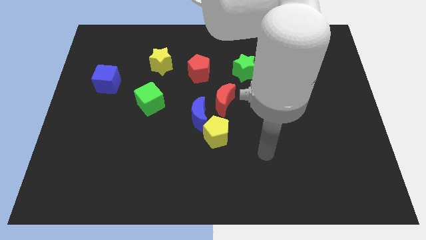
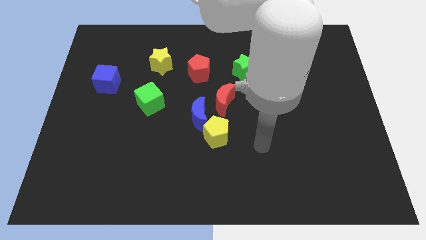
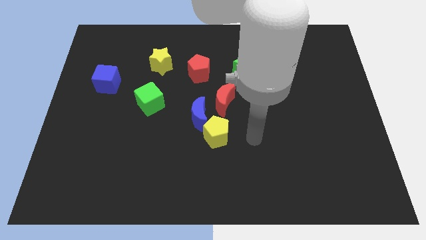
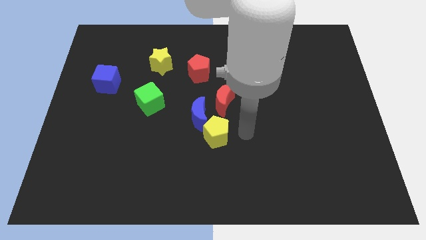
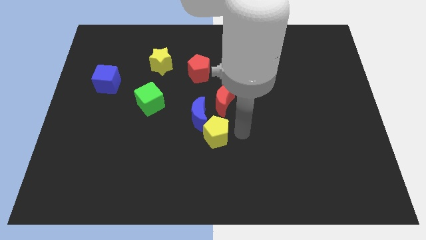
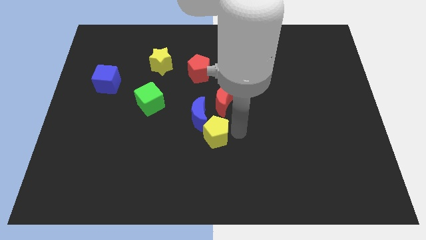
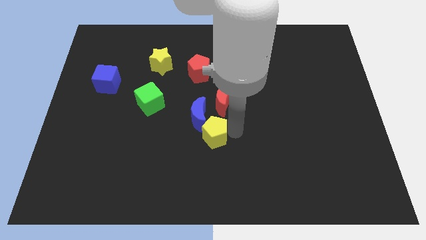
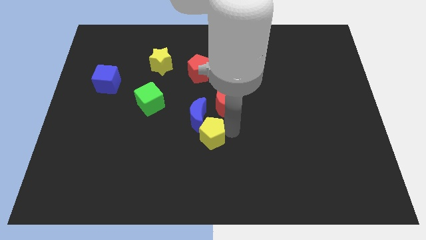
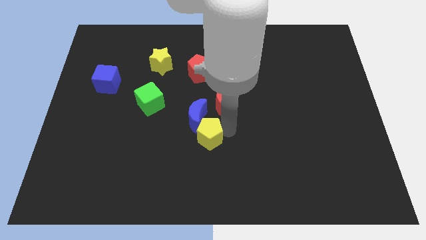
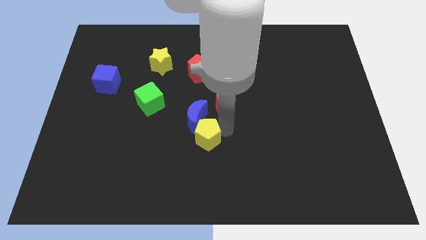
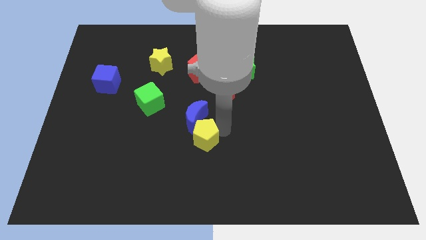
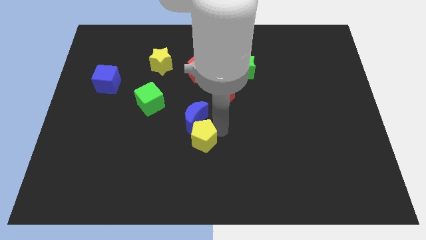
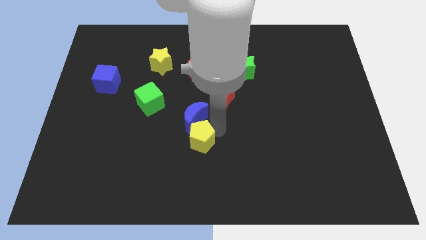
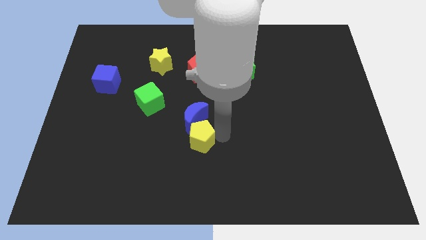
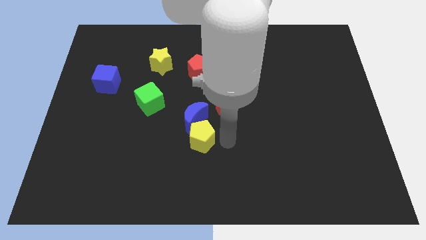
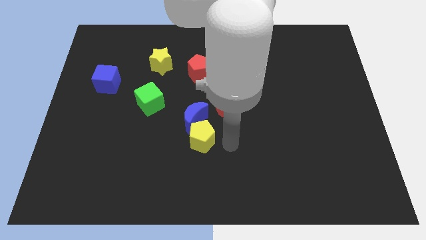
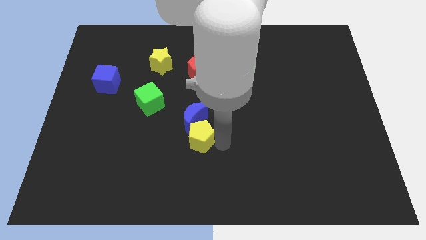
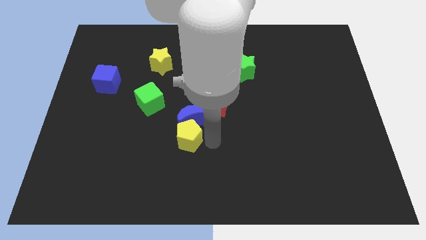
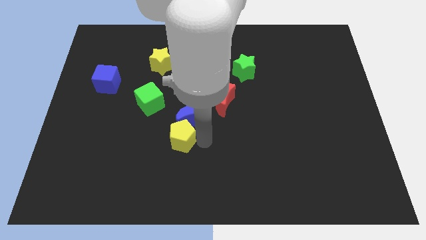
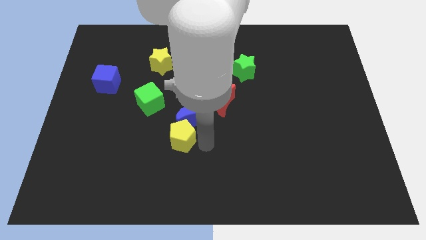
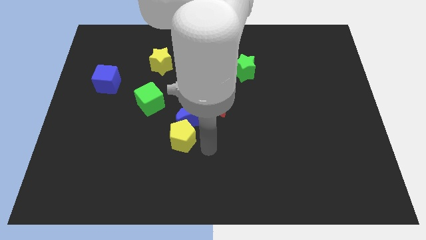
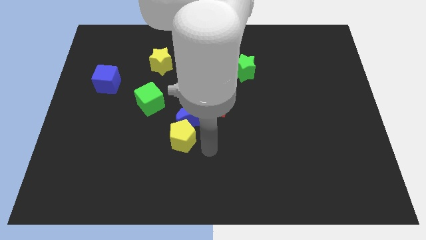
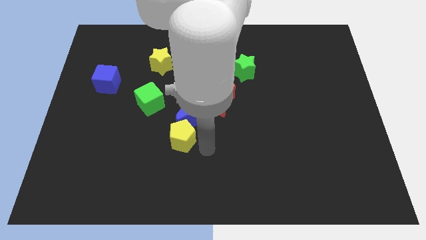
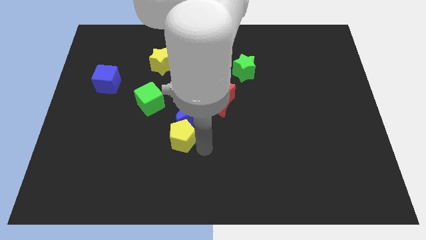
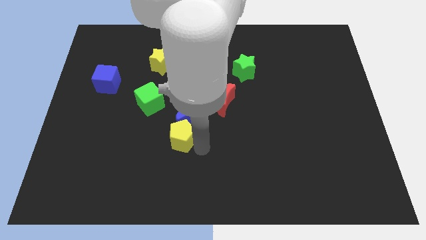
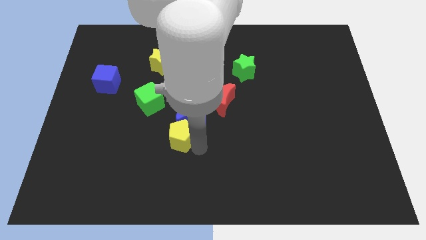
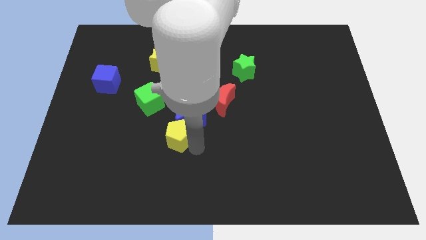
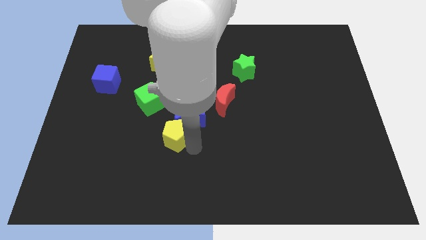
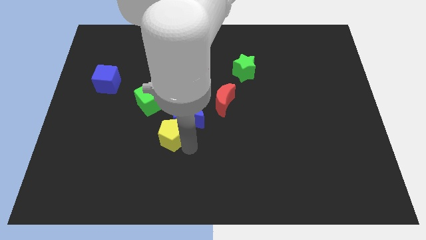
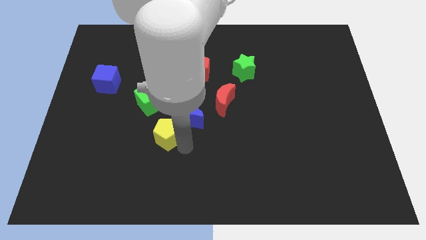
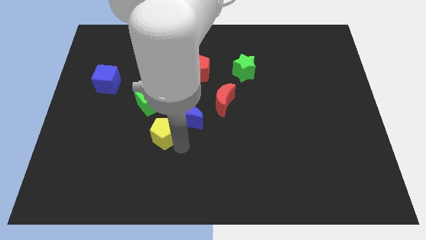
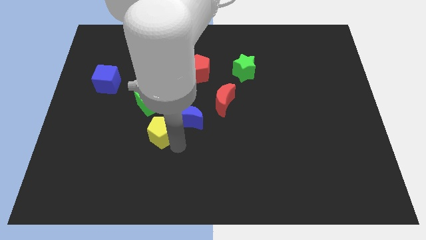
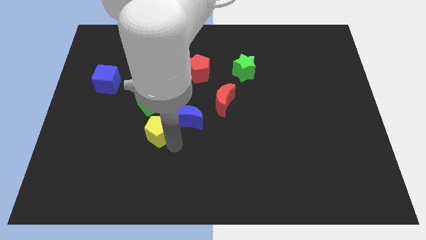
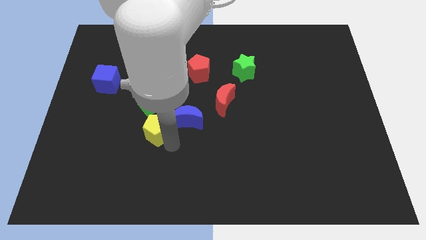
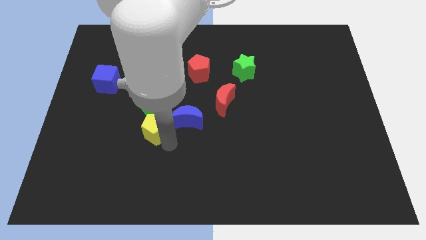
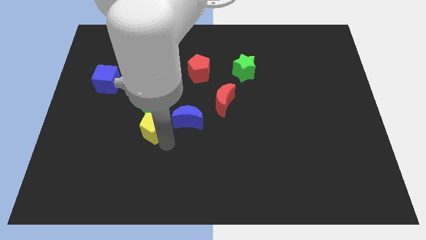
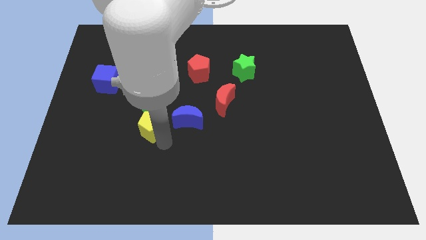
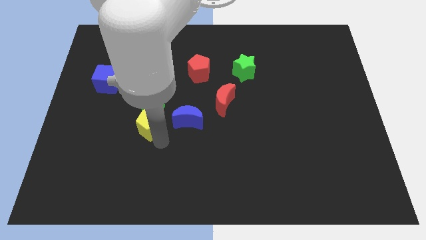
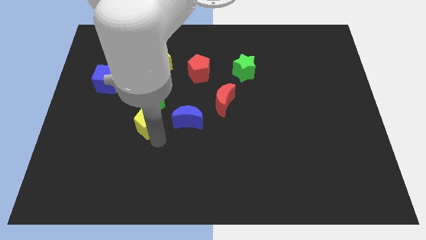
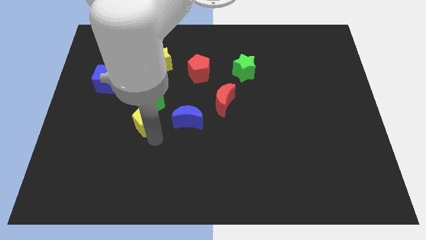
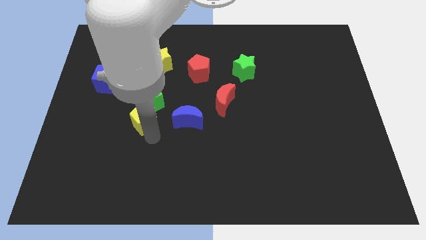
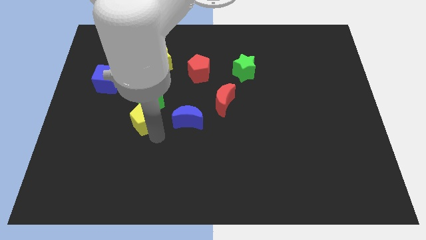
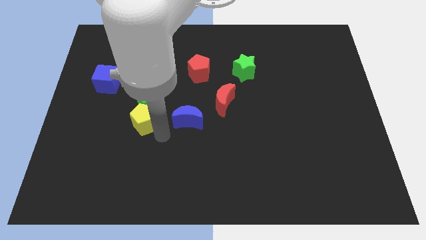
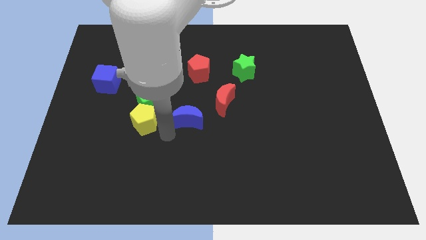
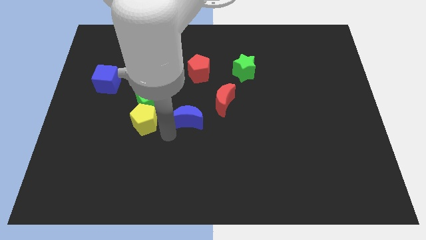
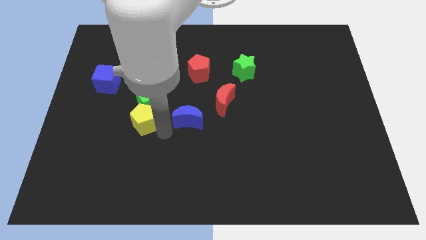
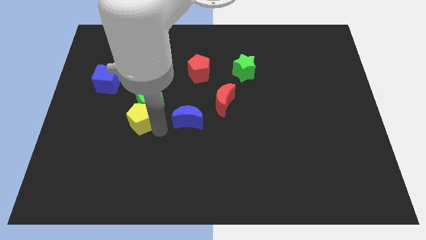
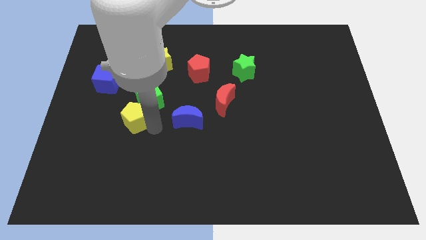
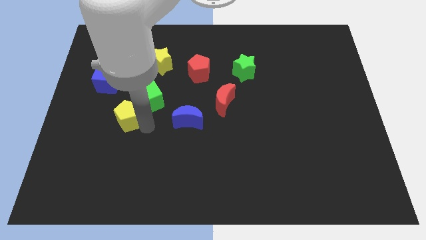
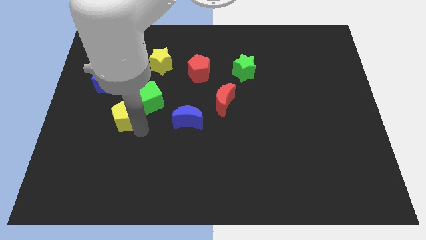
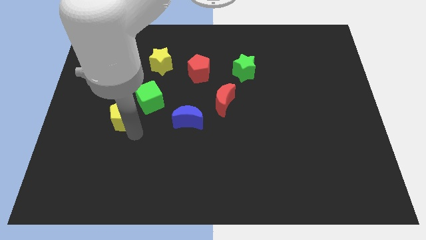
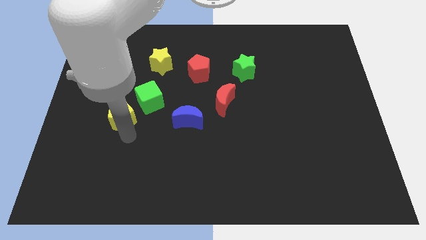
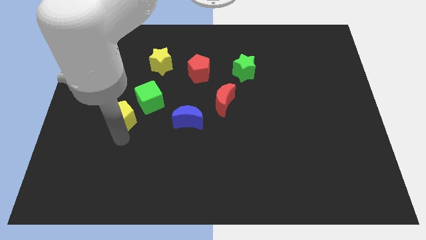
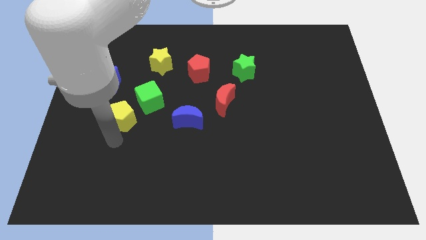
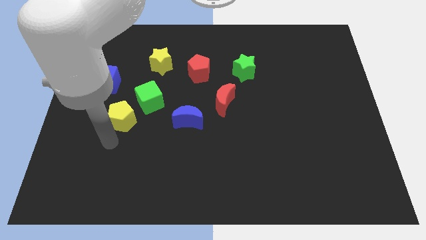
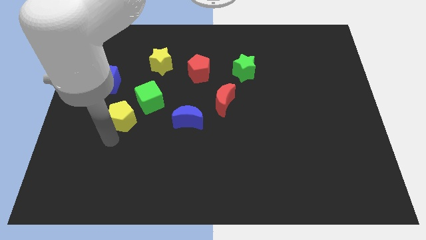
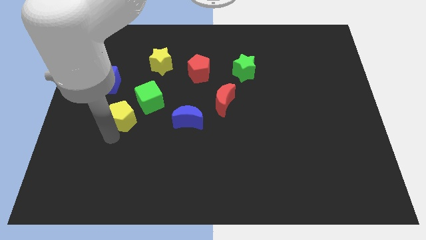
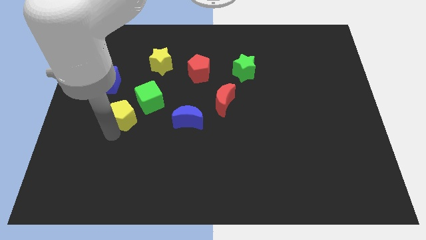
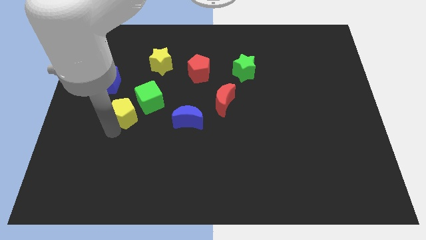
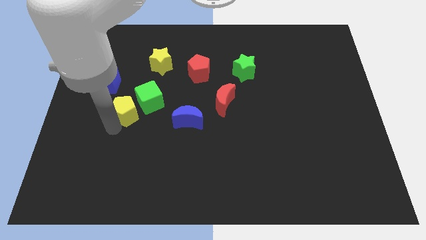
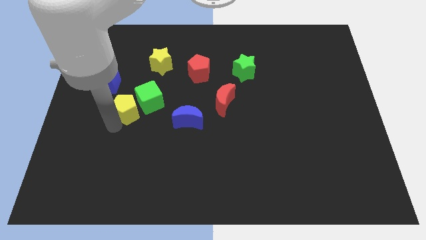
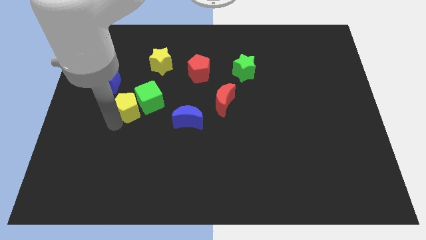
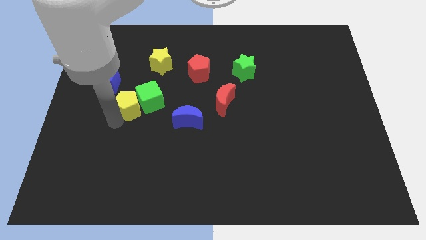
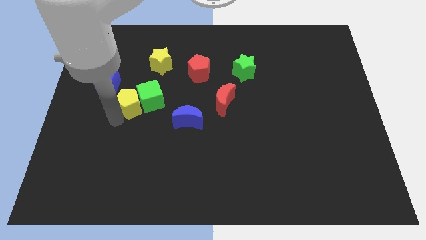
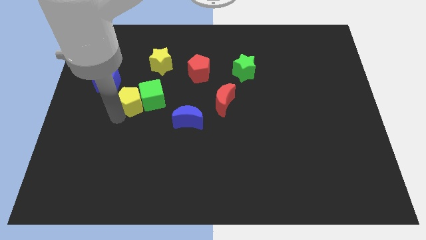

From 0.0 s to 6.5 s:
slide the yellow pentagon diagonally up and to the left of the green cube

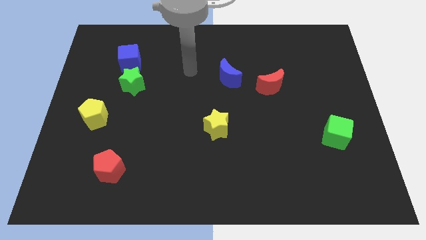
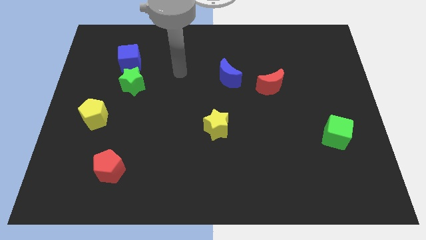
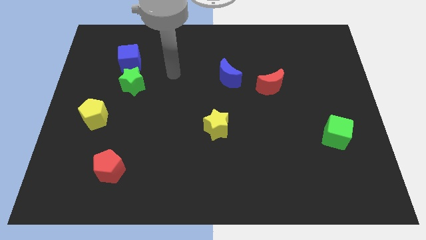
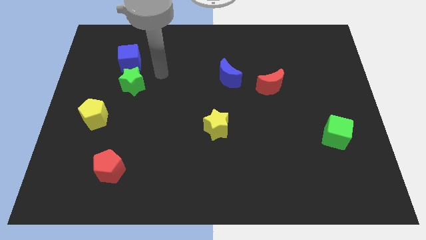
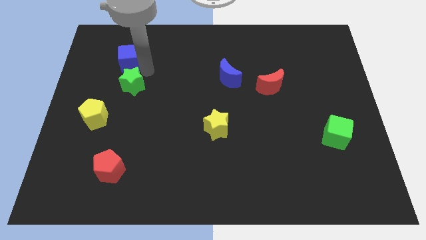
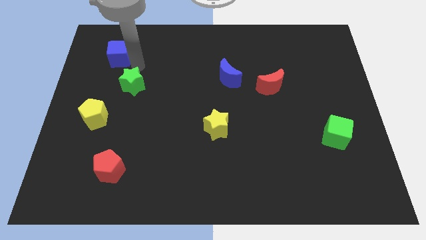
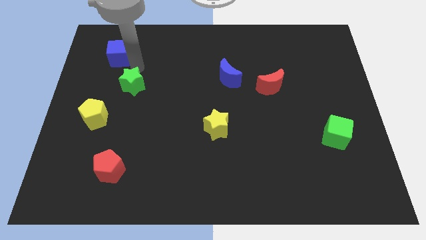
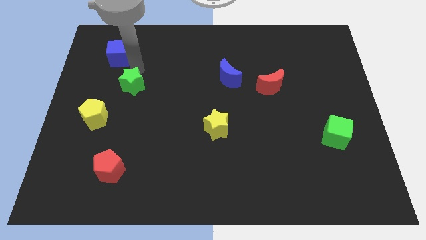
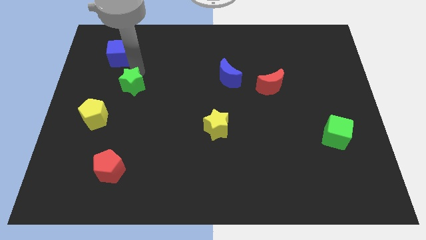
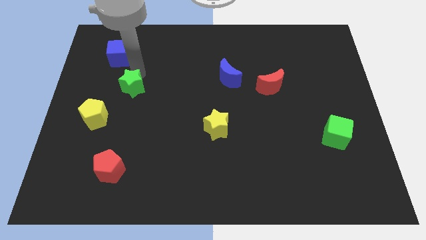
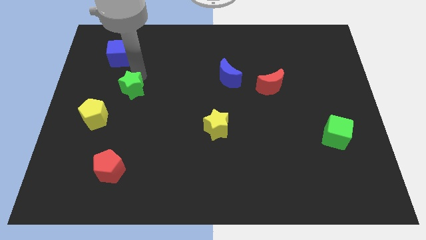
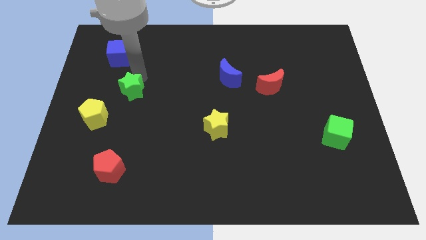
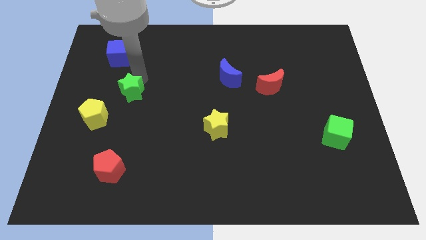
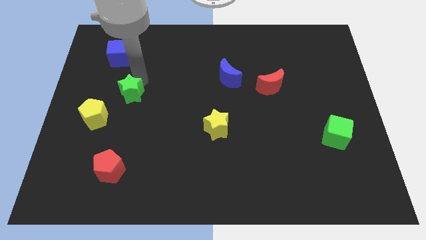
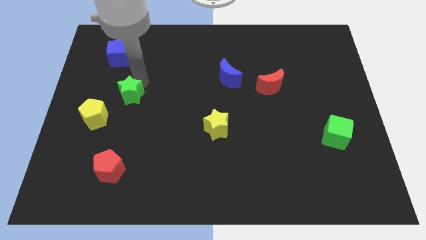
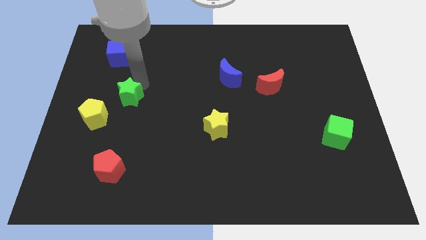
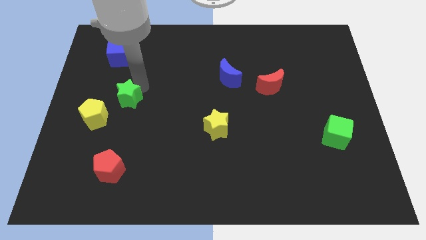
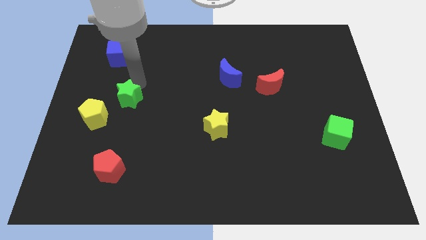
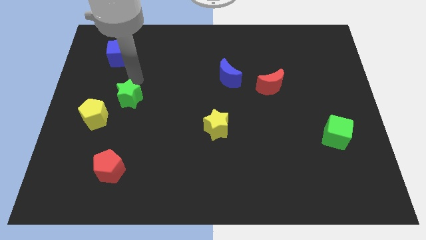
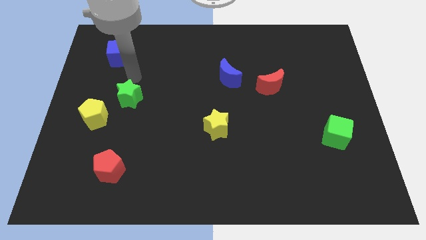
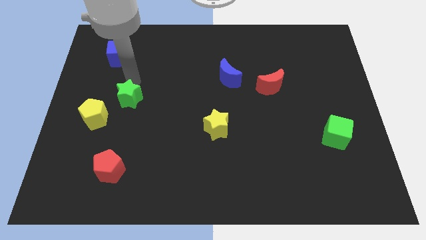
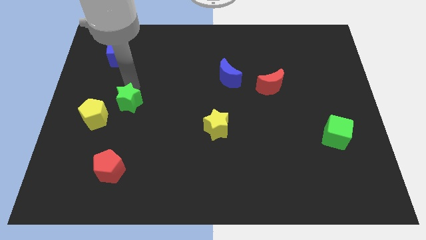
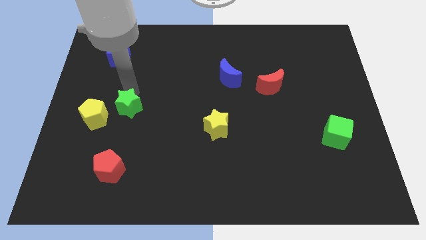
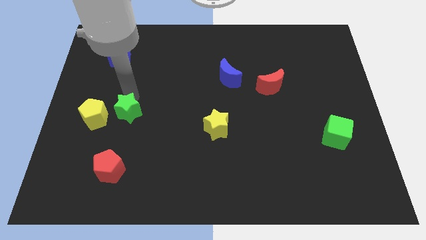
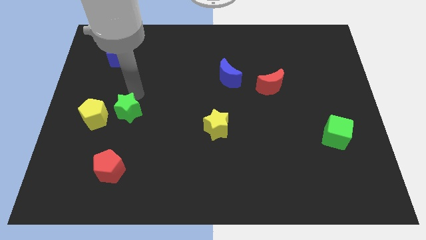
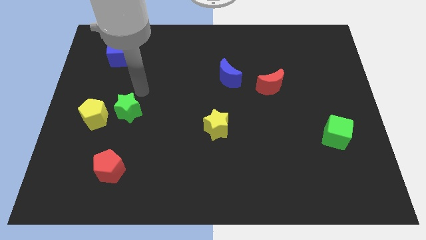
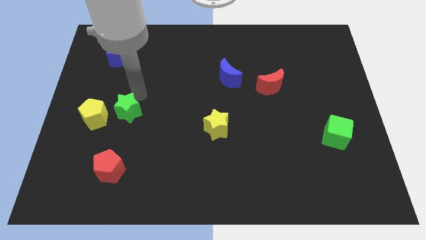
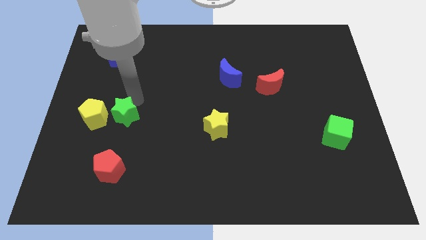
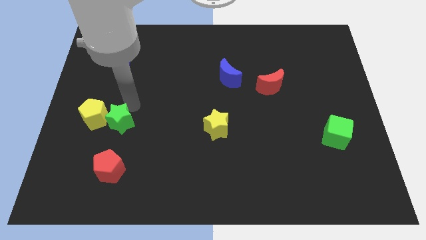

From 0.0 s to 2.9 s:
put the green star to the bottom right side of the yellow pentagon
